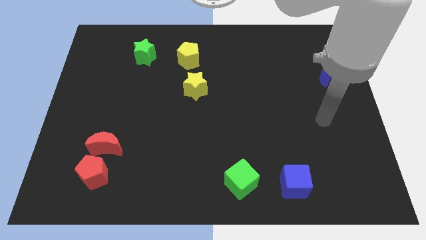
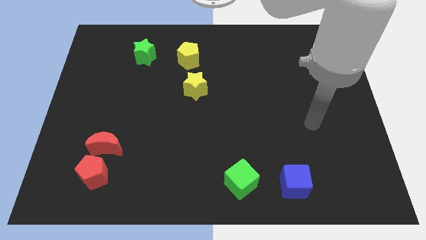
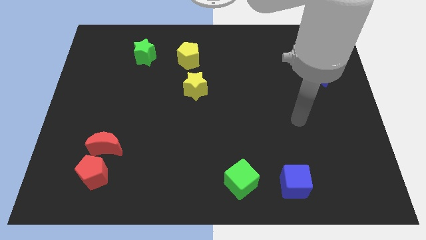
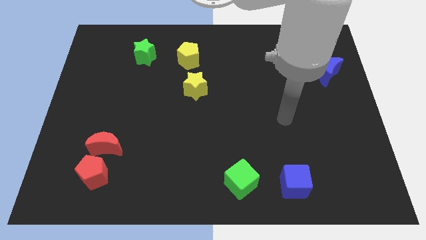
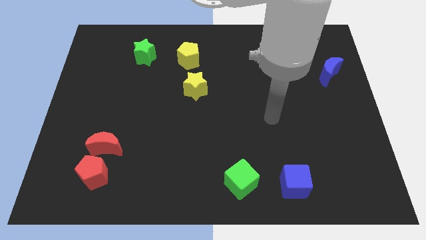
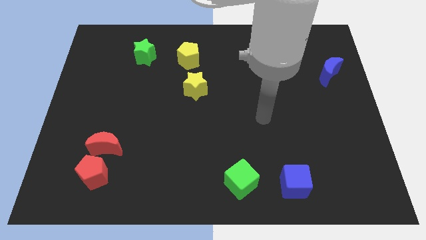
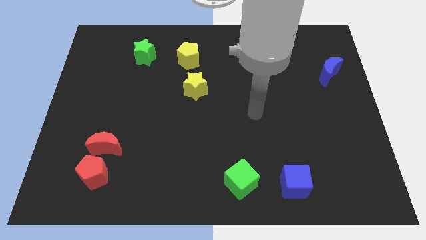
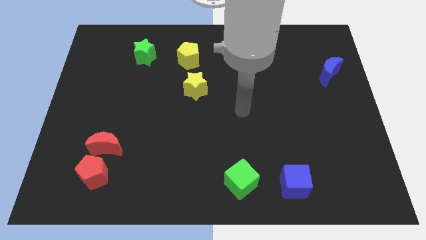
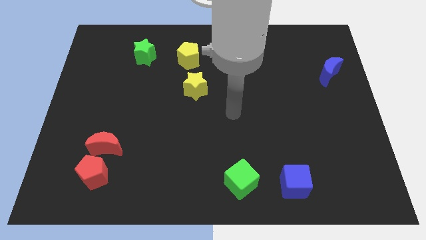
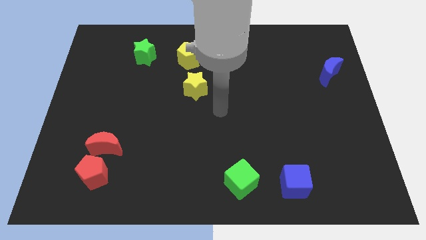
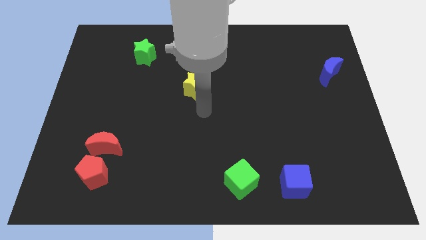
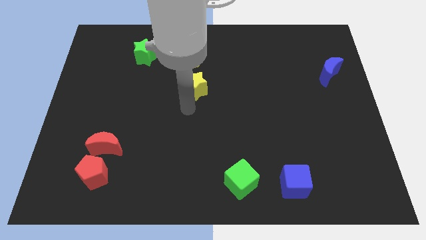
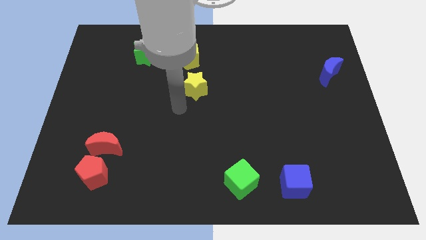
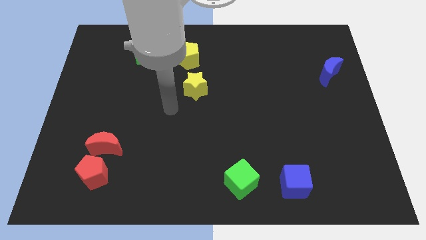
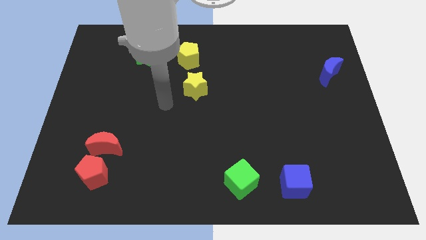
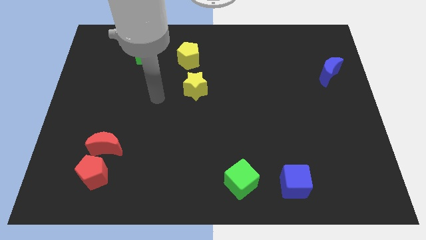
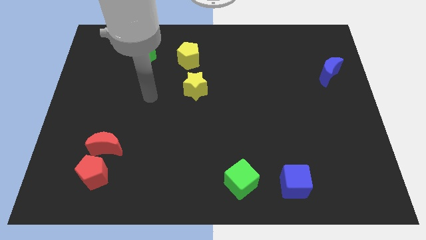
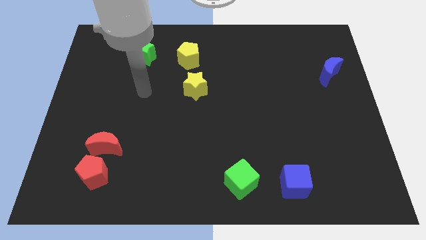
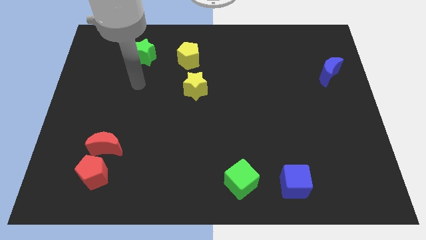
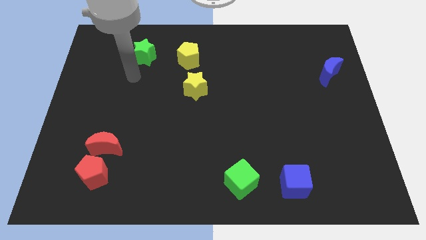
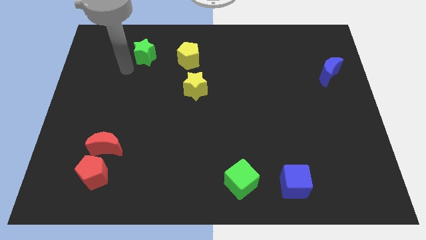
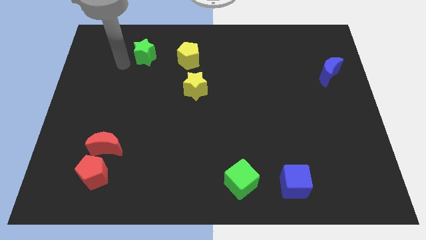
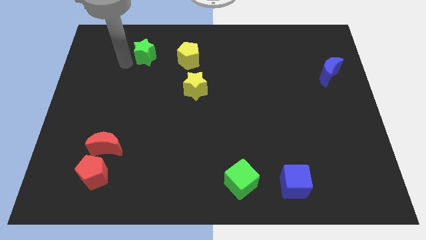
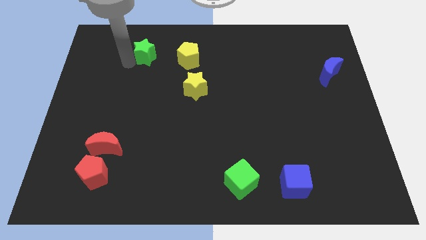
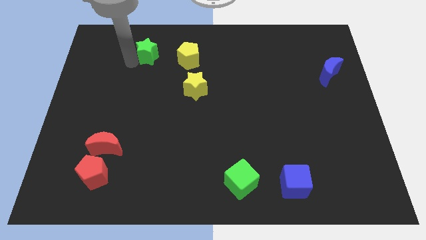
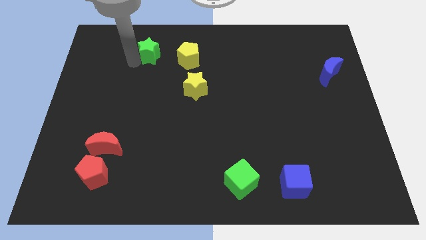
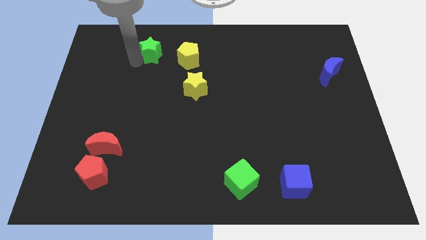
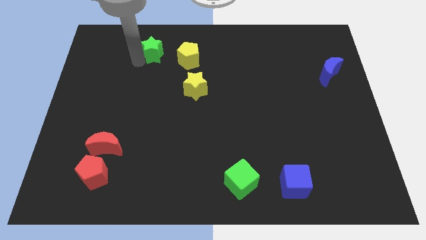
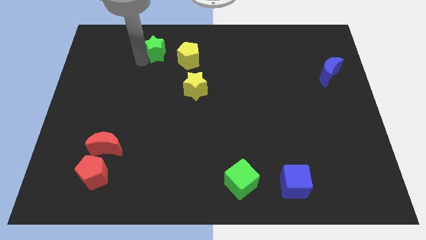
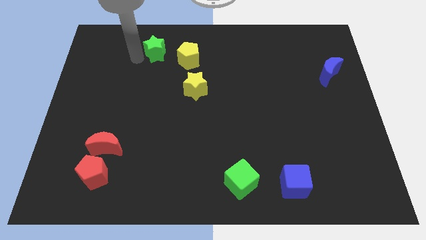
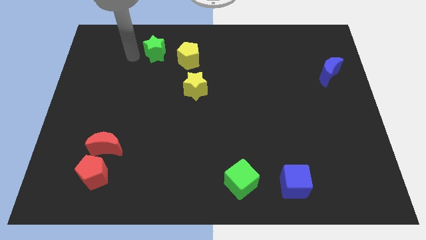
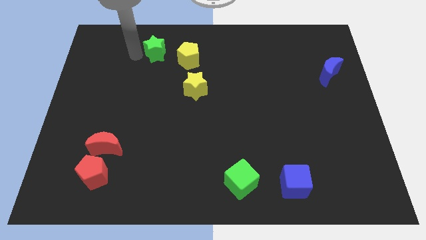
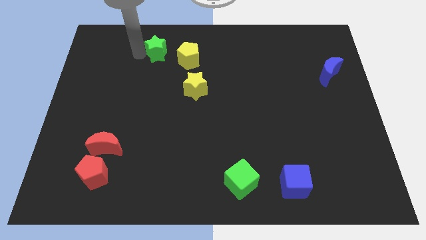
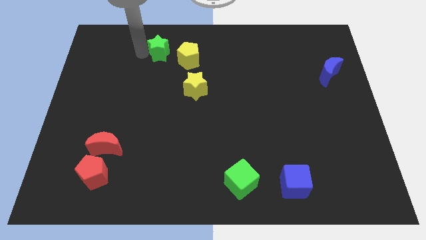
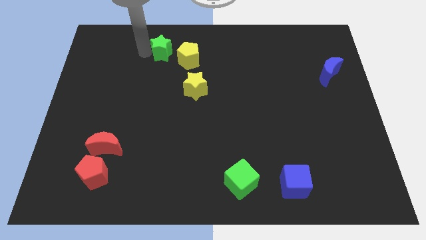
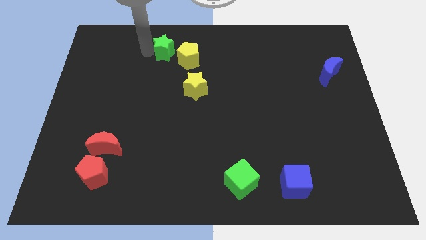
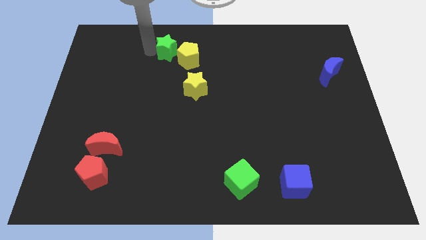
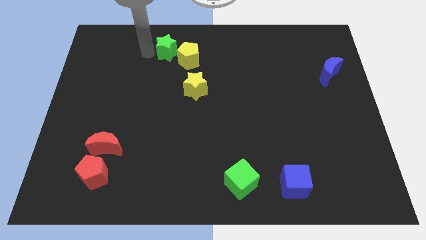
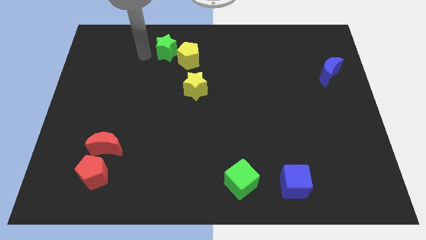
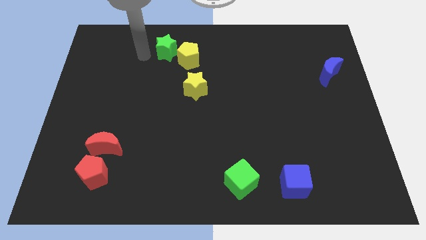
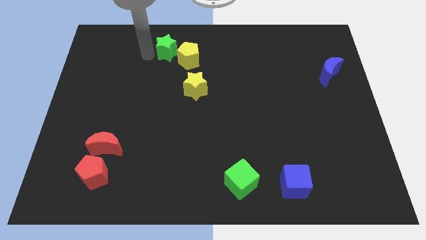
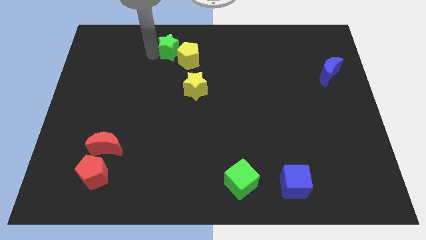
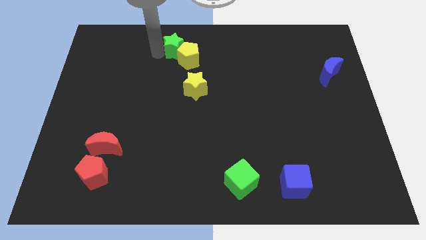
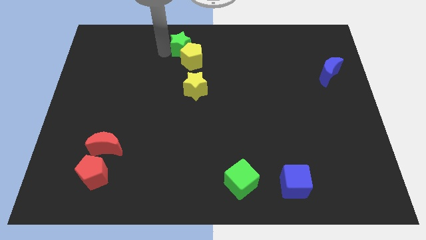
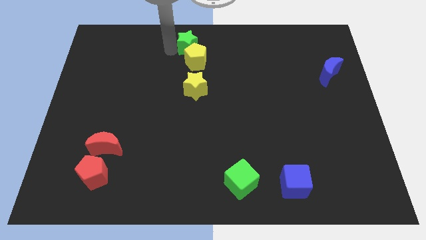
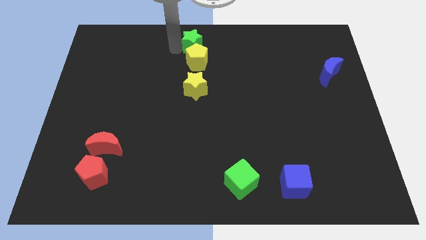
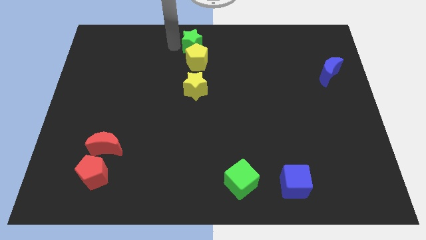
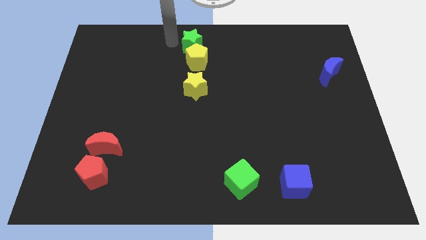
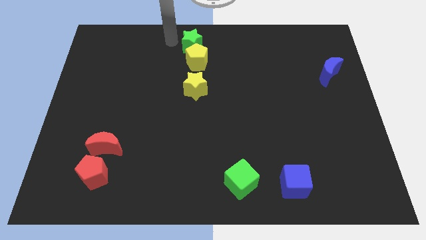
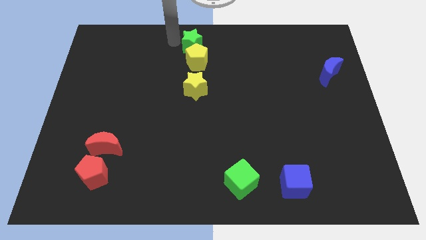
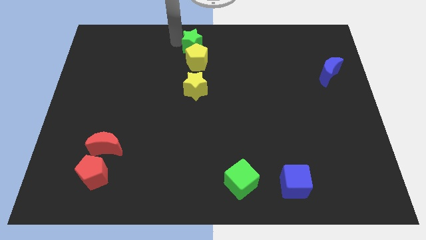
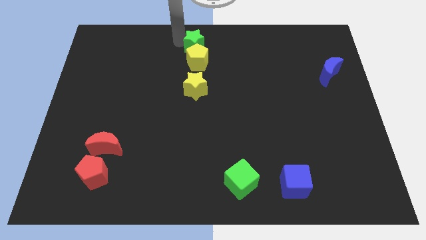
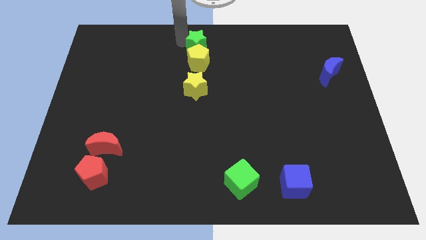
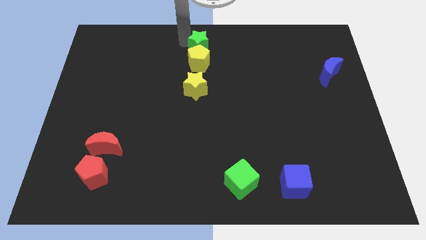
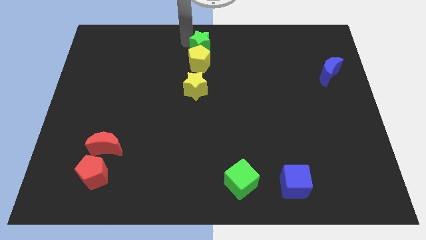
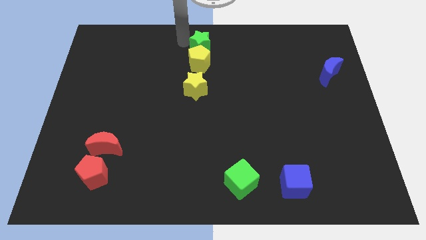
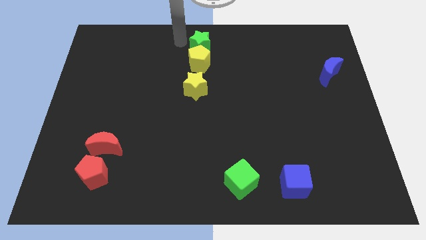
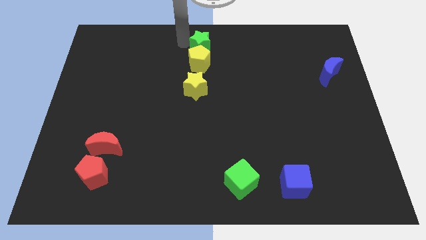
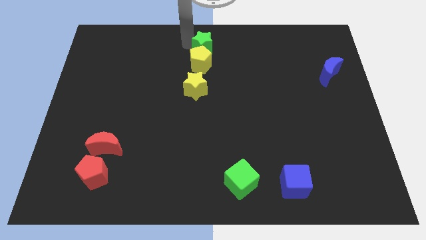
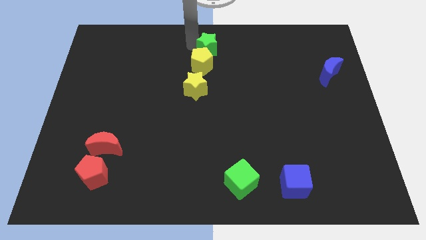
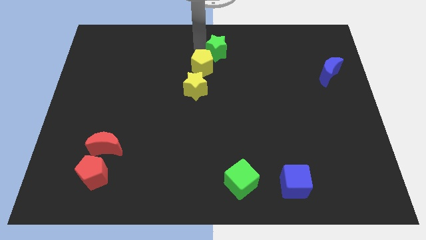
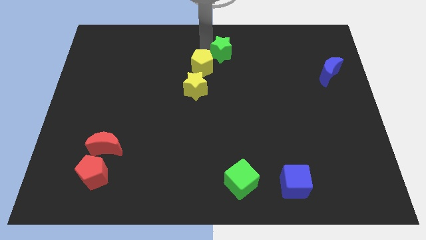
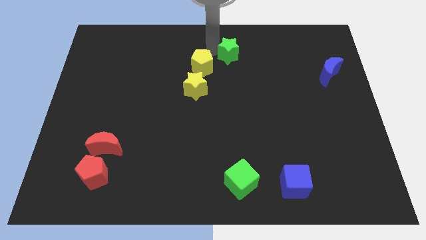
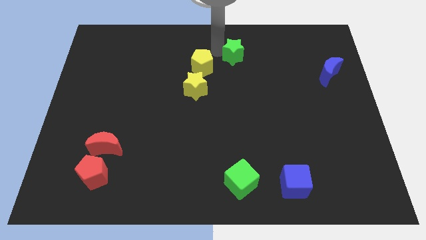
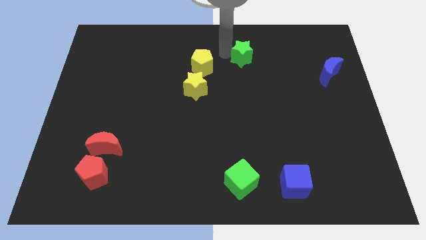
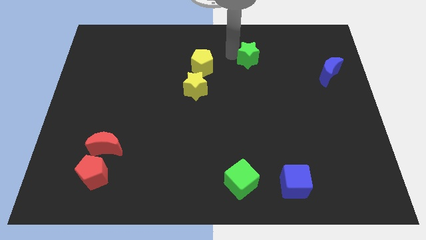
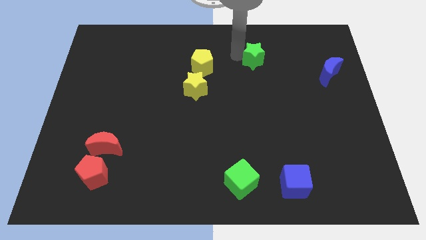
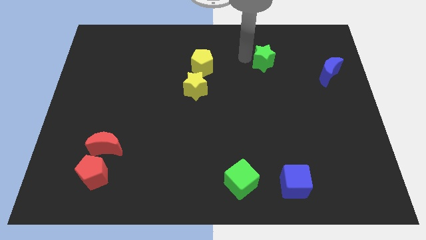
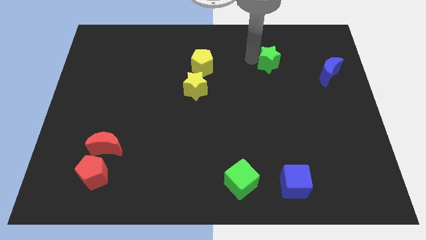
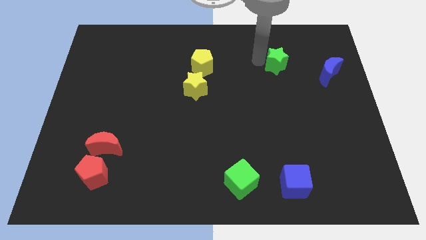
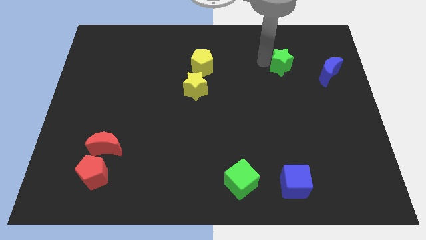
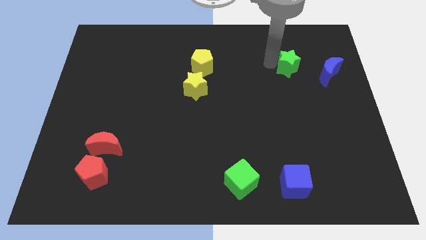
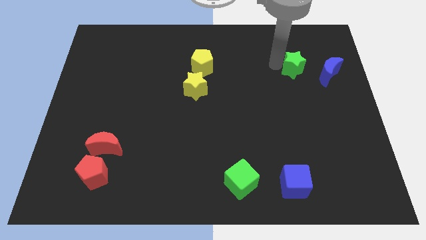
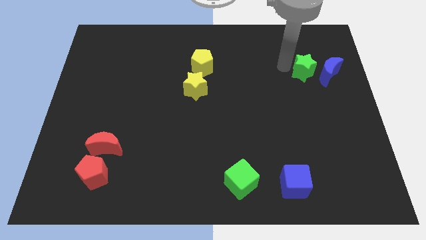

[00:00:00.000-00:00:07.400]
put the green star towards the blue moon

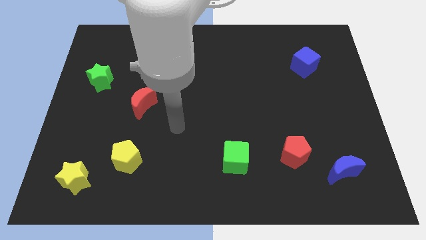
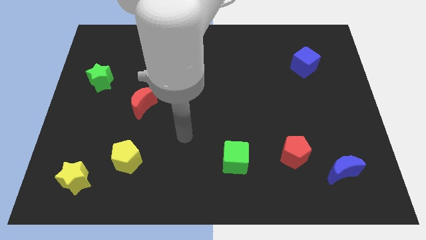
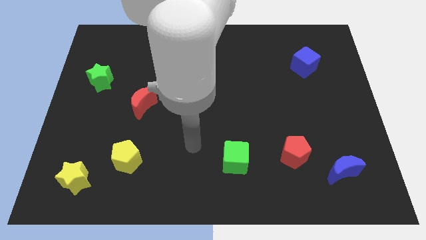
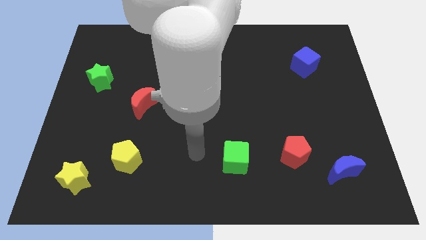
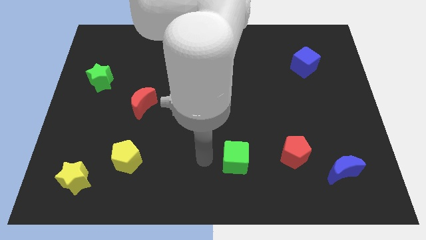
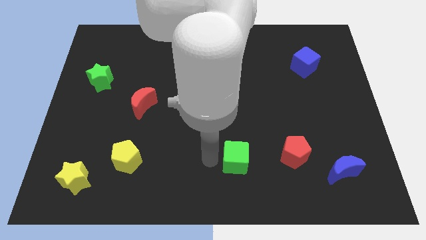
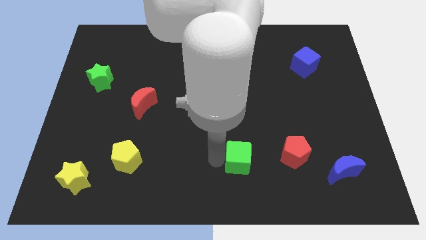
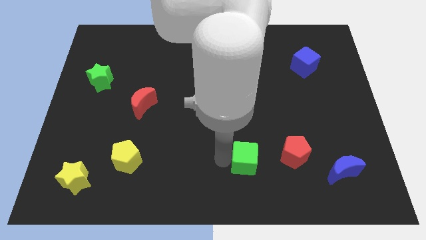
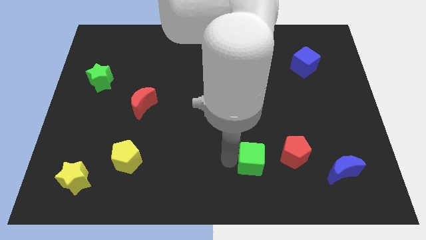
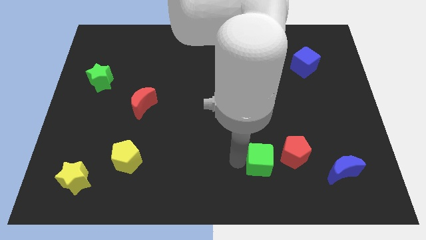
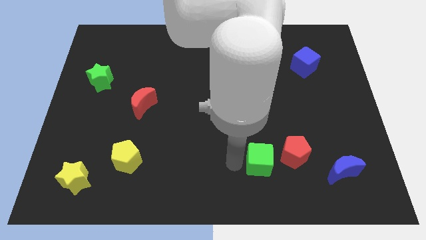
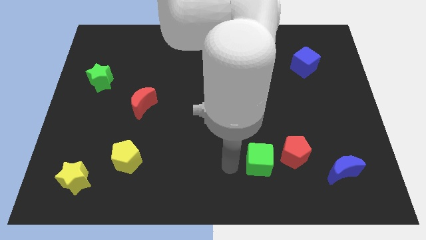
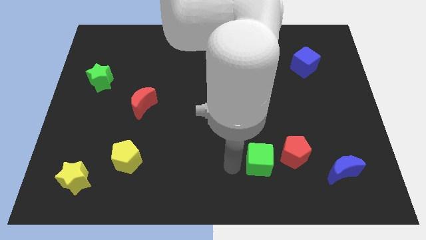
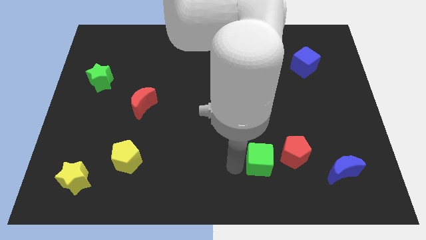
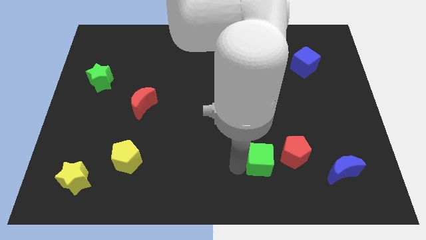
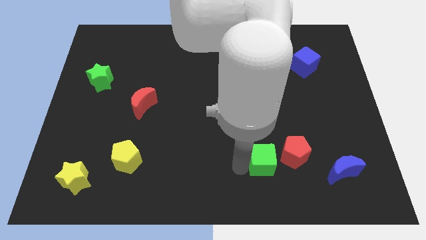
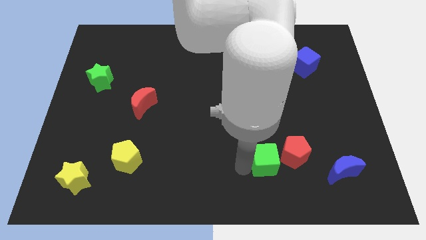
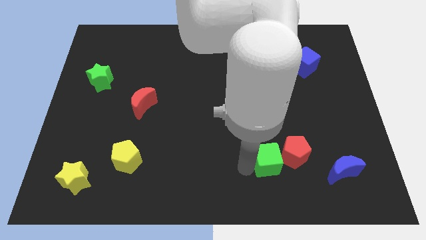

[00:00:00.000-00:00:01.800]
push the green cube to the red pentagon
